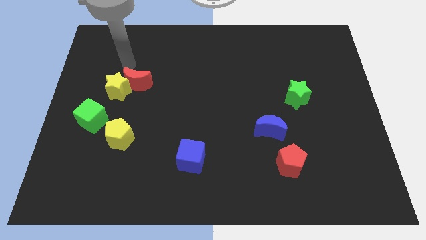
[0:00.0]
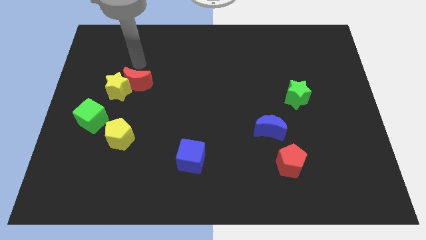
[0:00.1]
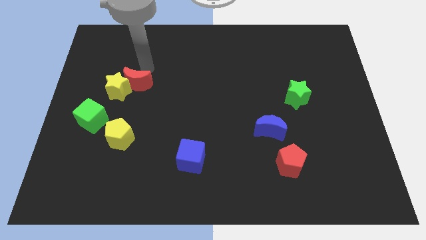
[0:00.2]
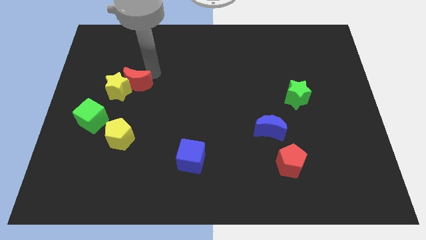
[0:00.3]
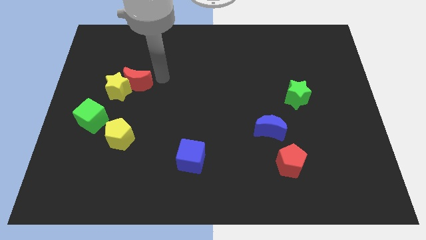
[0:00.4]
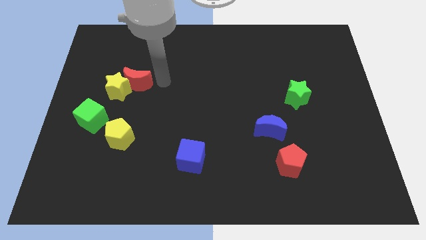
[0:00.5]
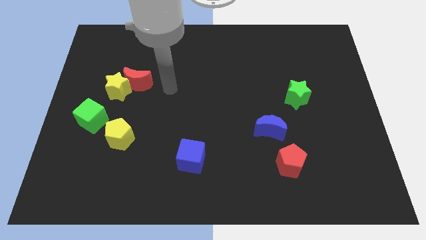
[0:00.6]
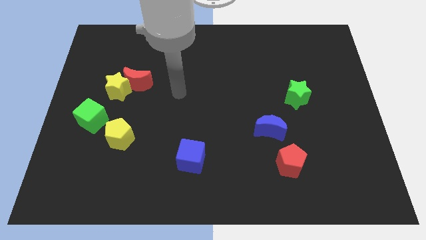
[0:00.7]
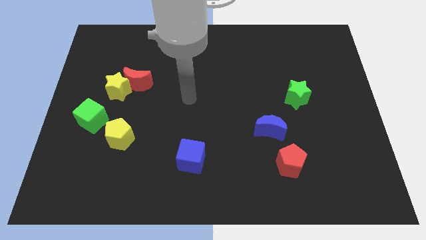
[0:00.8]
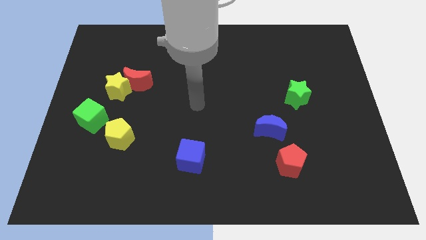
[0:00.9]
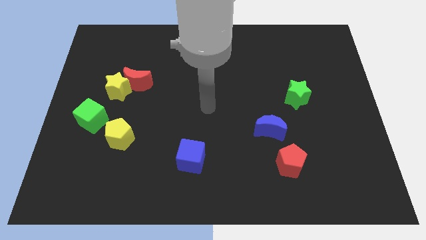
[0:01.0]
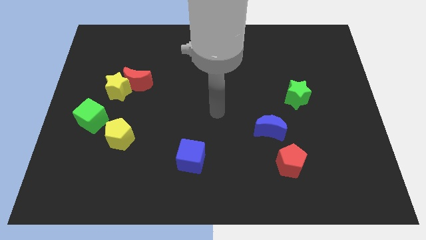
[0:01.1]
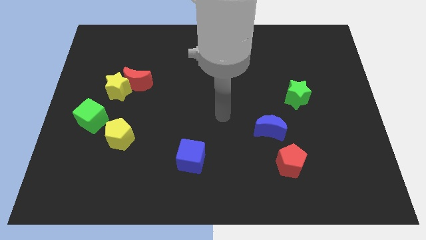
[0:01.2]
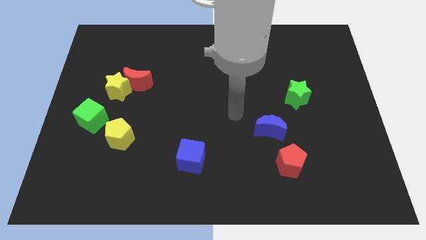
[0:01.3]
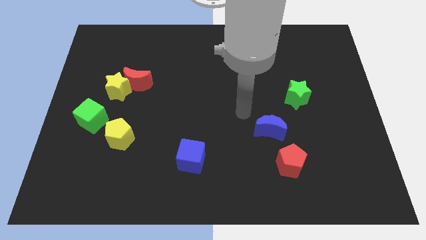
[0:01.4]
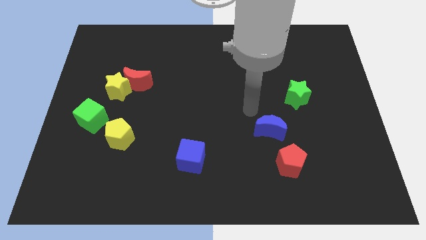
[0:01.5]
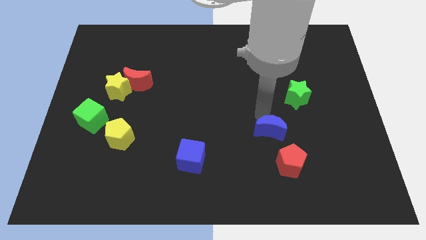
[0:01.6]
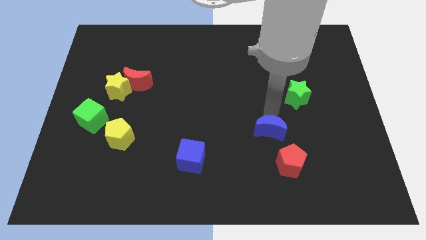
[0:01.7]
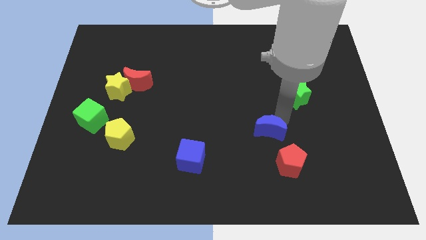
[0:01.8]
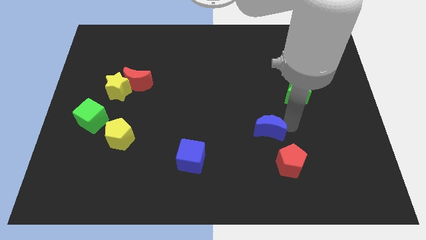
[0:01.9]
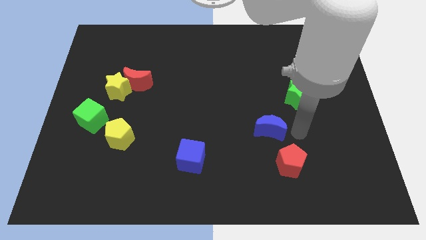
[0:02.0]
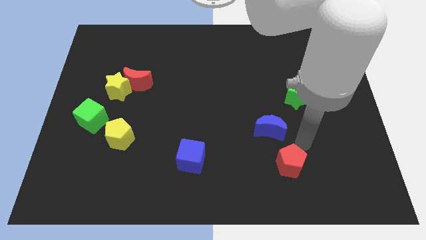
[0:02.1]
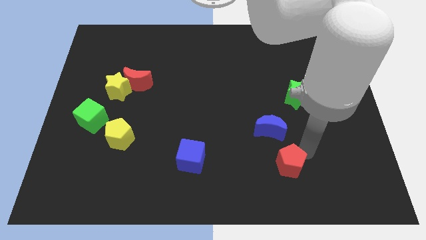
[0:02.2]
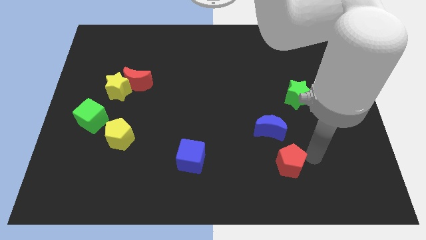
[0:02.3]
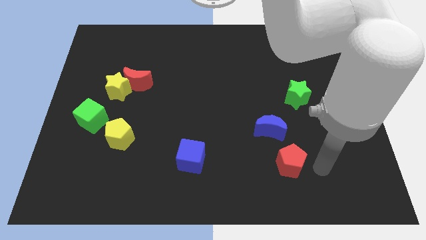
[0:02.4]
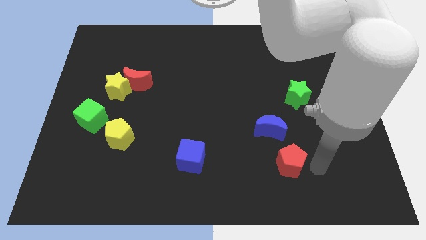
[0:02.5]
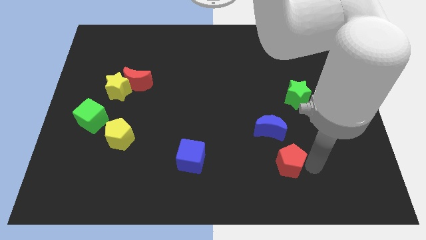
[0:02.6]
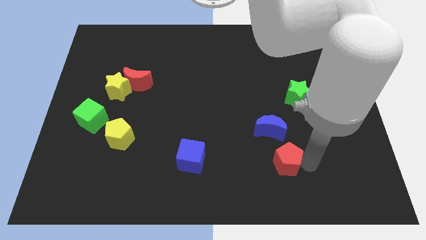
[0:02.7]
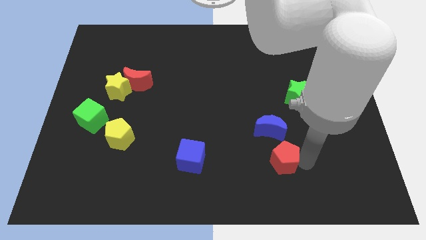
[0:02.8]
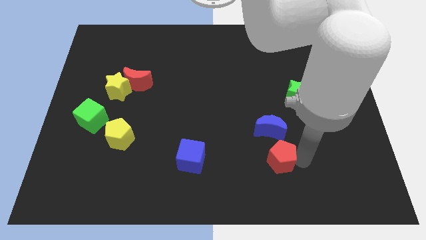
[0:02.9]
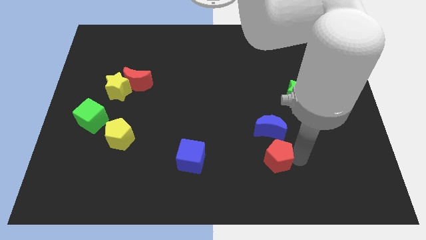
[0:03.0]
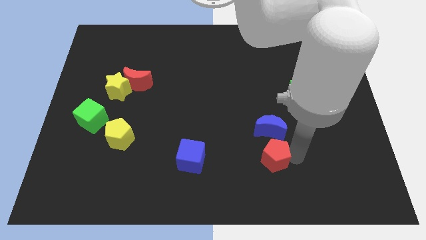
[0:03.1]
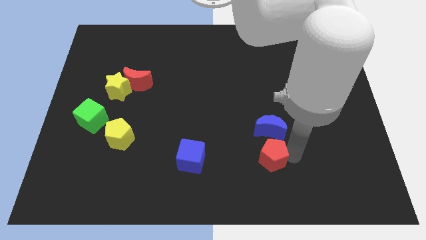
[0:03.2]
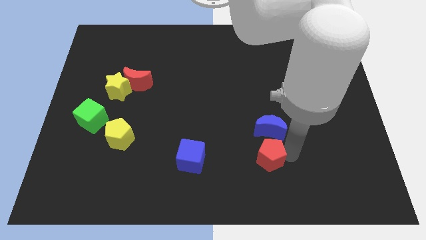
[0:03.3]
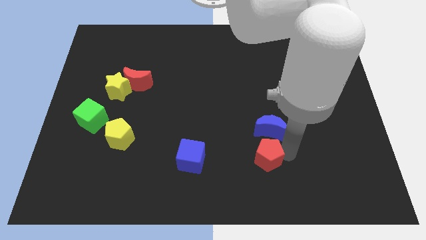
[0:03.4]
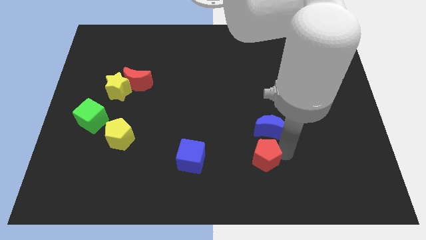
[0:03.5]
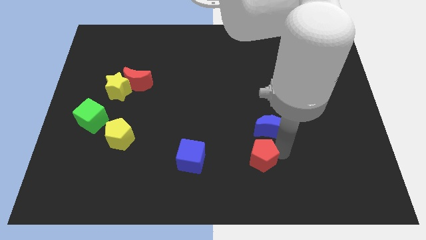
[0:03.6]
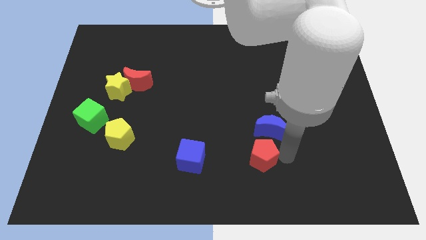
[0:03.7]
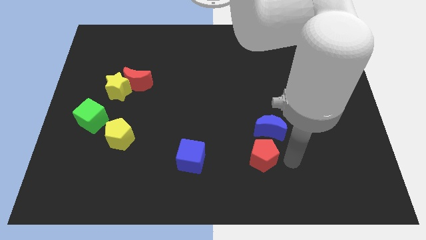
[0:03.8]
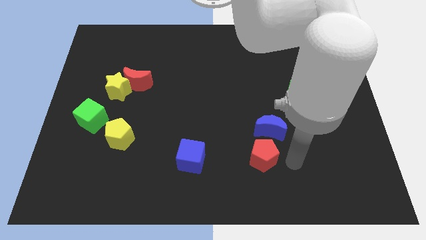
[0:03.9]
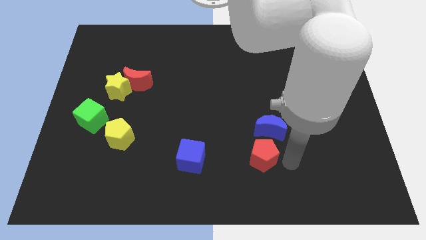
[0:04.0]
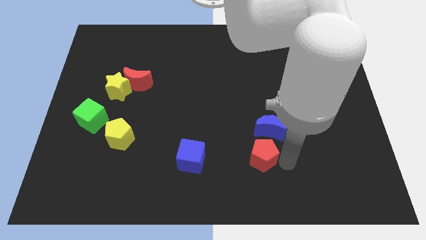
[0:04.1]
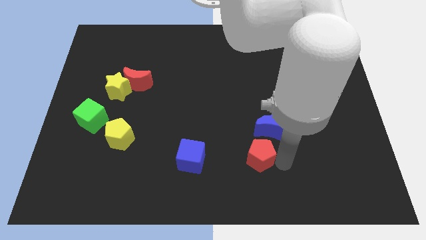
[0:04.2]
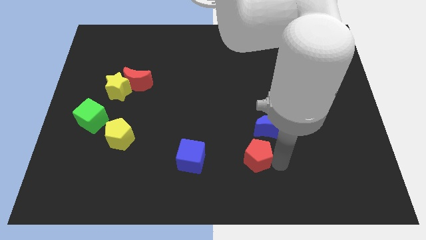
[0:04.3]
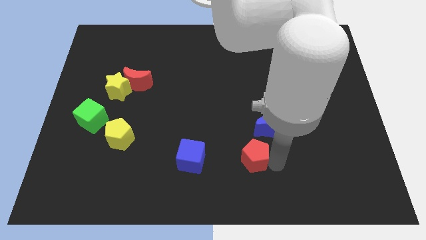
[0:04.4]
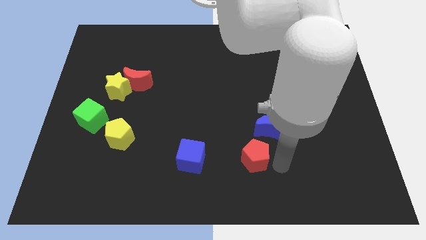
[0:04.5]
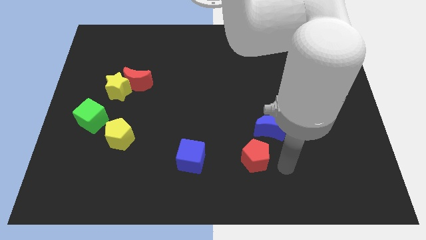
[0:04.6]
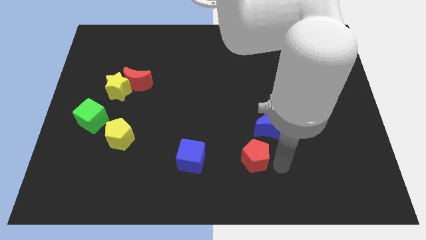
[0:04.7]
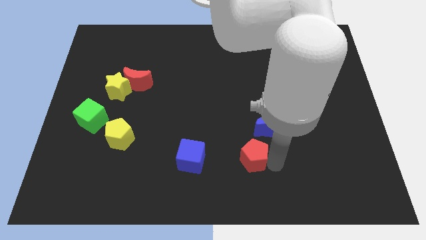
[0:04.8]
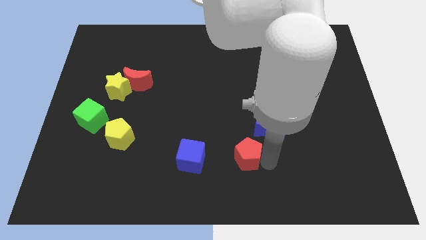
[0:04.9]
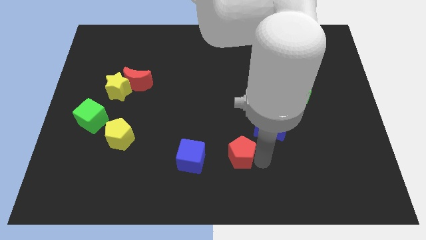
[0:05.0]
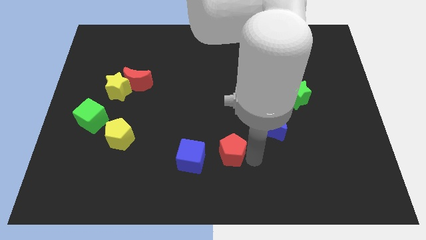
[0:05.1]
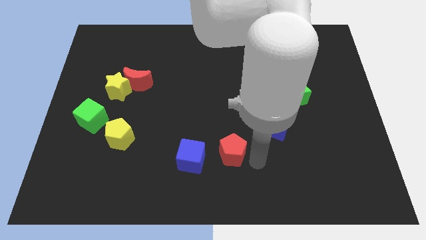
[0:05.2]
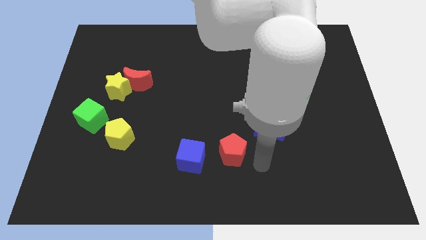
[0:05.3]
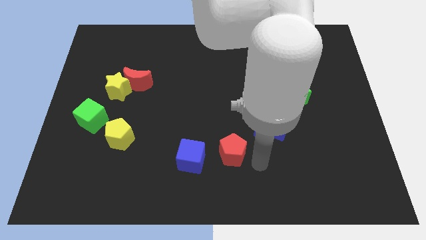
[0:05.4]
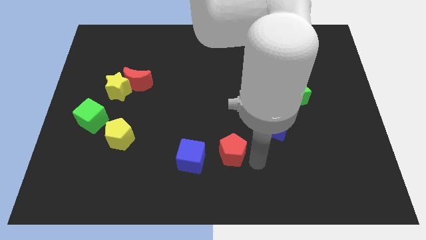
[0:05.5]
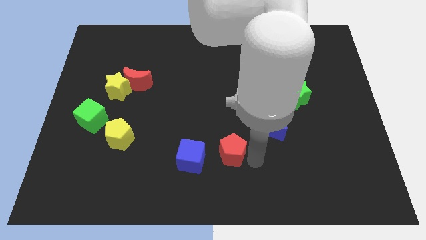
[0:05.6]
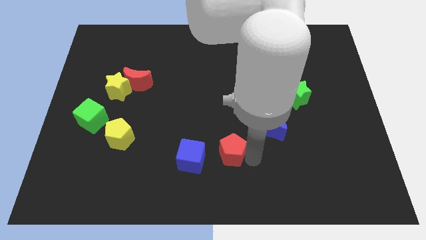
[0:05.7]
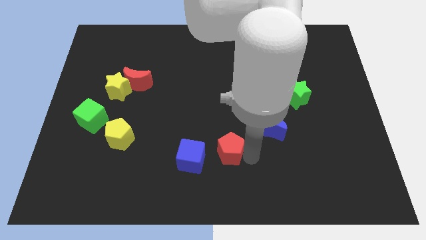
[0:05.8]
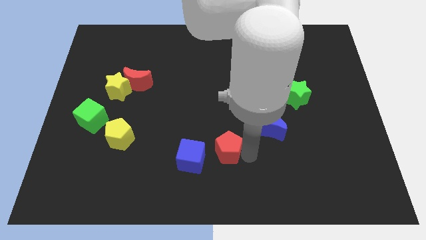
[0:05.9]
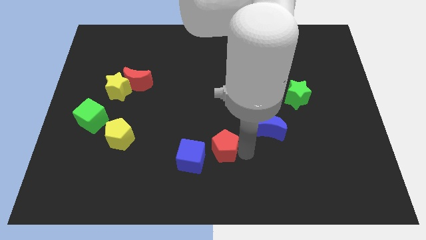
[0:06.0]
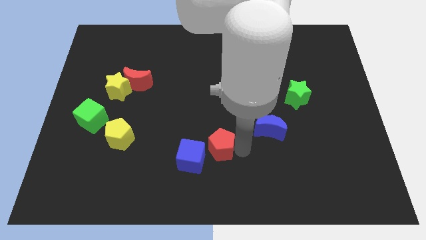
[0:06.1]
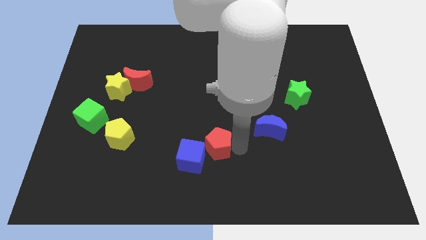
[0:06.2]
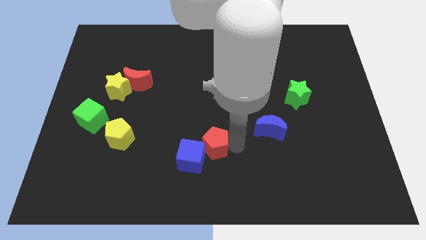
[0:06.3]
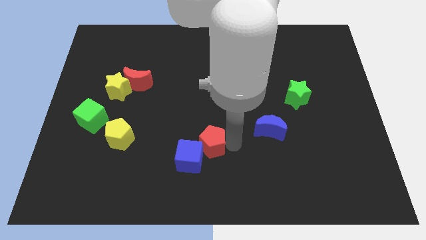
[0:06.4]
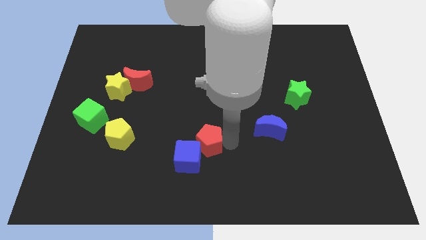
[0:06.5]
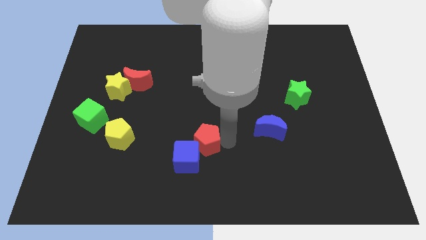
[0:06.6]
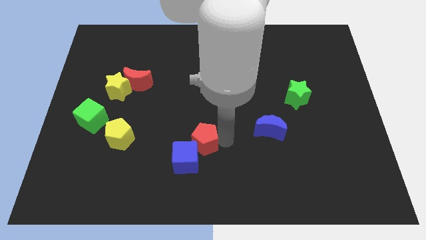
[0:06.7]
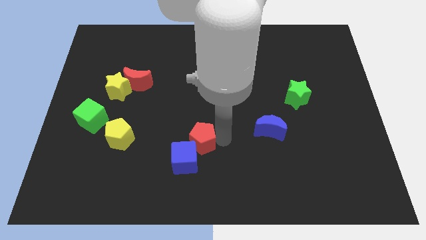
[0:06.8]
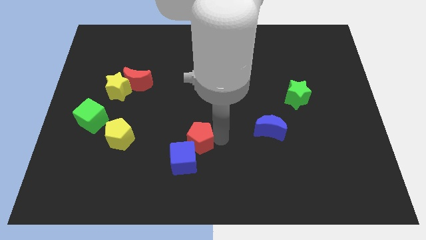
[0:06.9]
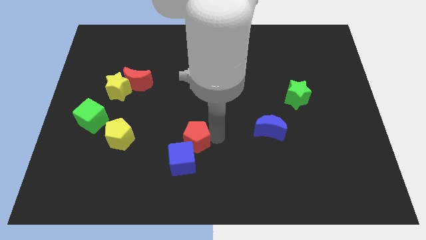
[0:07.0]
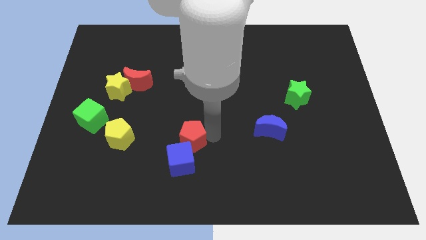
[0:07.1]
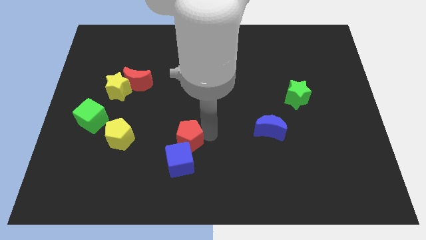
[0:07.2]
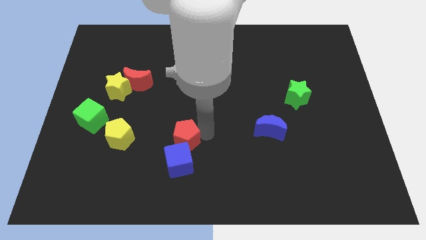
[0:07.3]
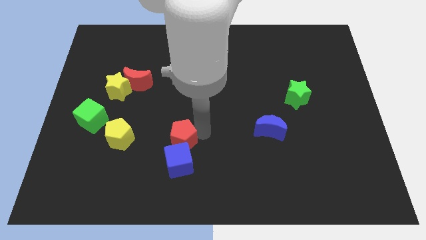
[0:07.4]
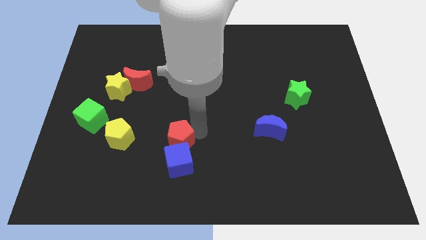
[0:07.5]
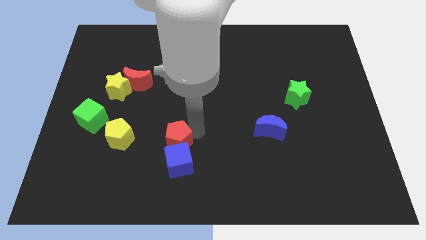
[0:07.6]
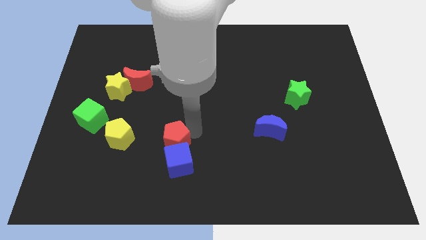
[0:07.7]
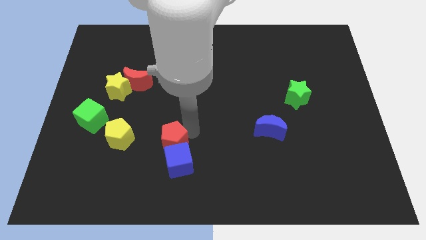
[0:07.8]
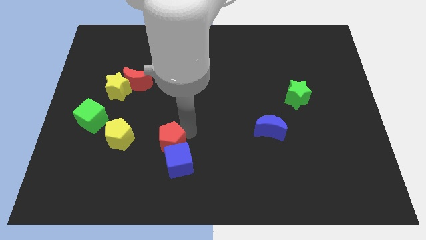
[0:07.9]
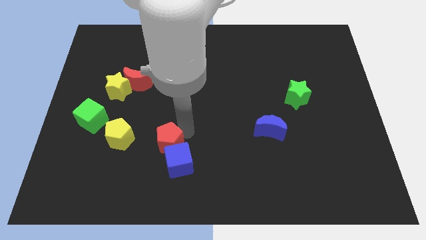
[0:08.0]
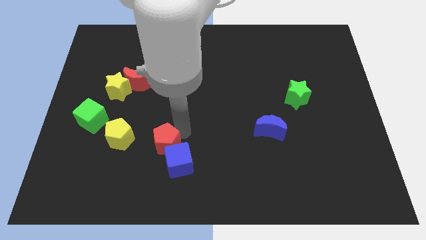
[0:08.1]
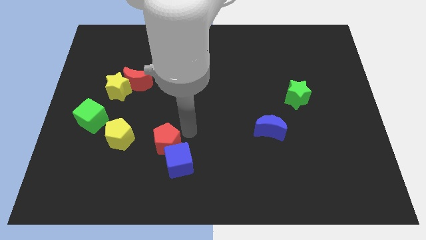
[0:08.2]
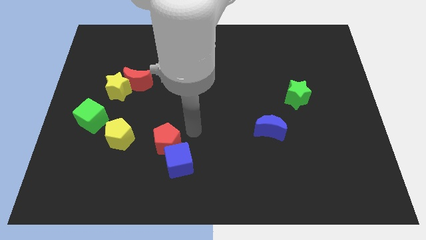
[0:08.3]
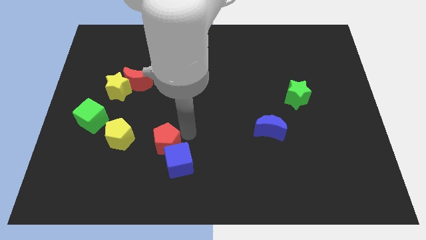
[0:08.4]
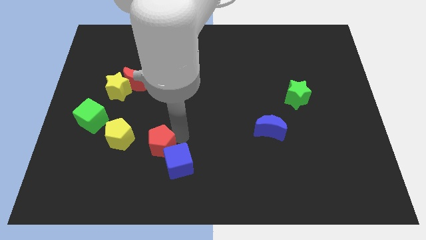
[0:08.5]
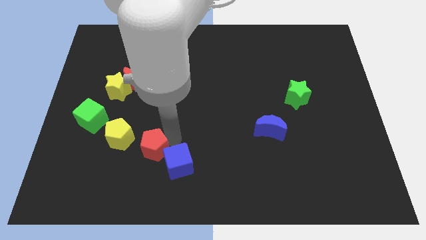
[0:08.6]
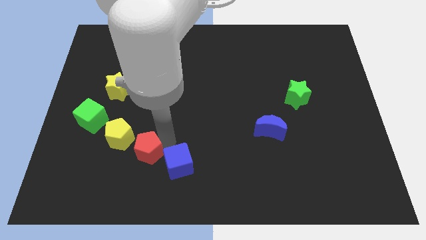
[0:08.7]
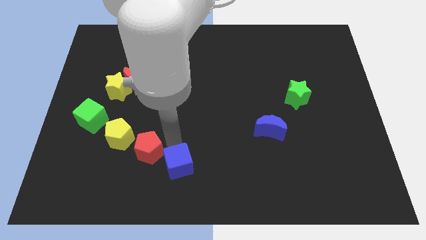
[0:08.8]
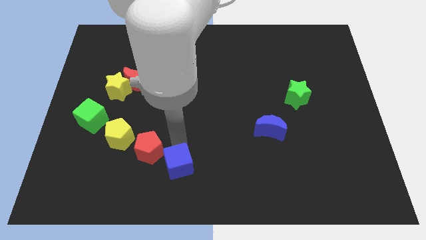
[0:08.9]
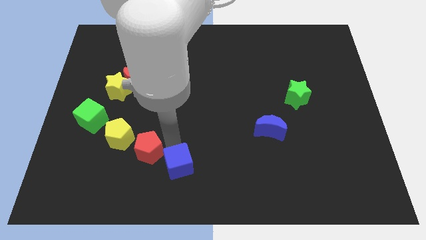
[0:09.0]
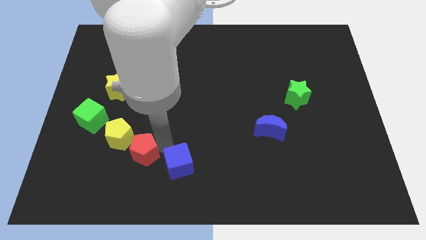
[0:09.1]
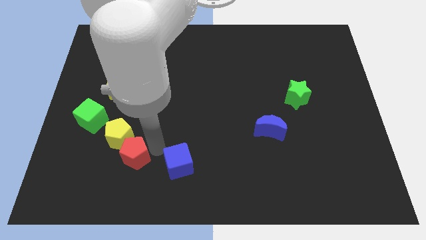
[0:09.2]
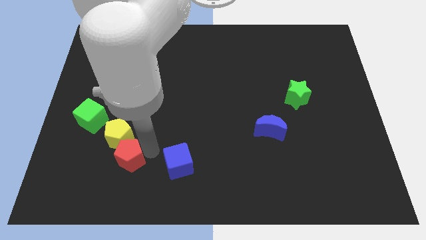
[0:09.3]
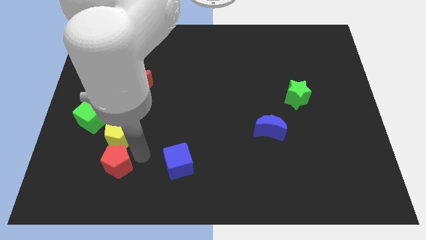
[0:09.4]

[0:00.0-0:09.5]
put the red pentagon to the bottom left of the yellow pentagon
